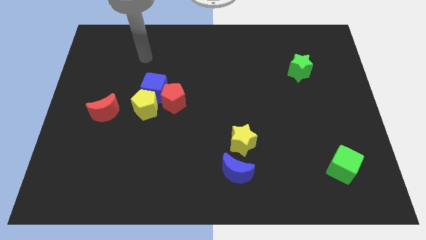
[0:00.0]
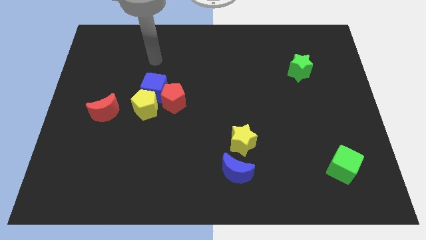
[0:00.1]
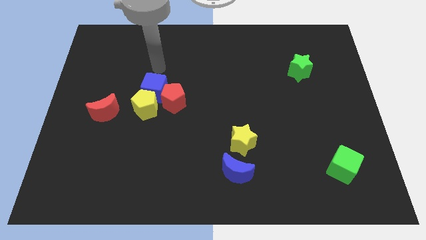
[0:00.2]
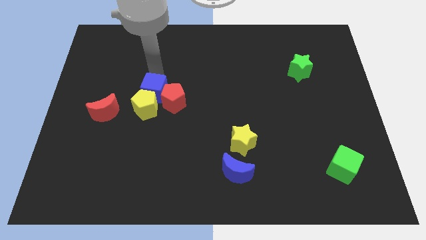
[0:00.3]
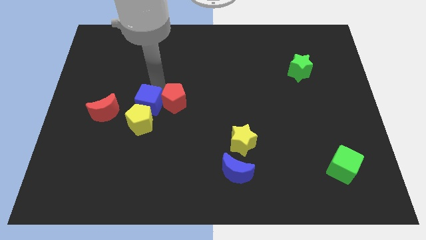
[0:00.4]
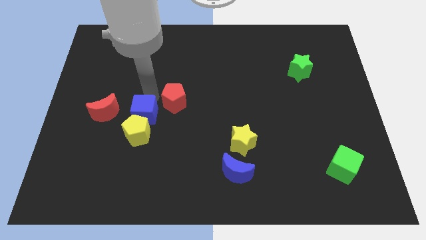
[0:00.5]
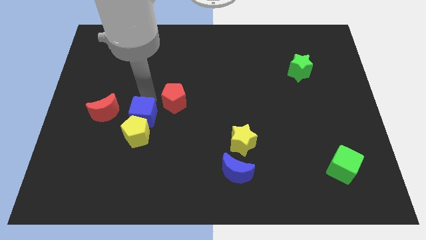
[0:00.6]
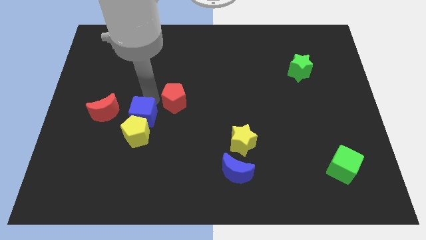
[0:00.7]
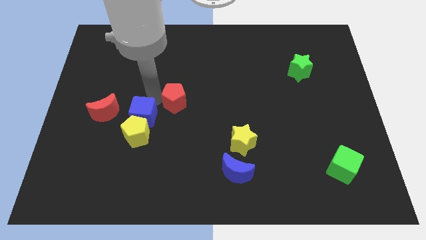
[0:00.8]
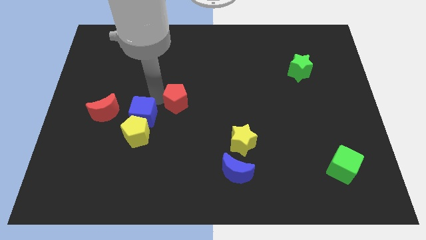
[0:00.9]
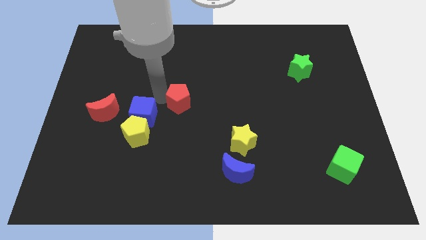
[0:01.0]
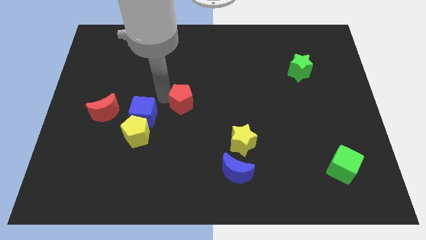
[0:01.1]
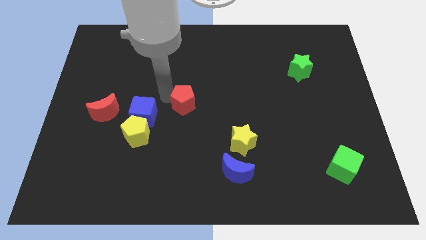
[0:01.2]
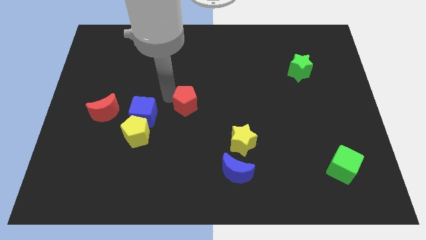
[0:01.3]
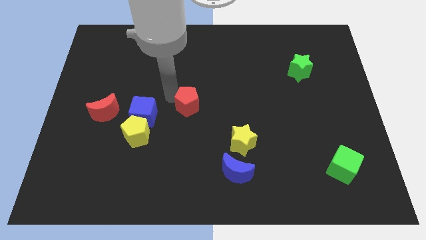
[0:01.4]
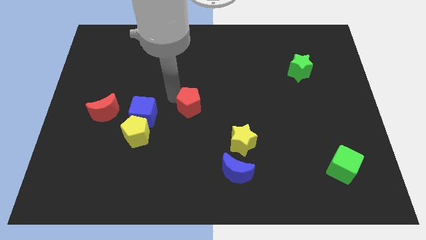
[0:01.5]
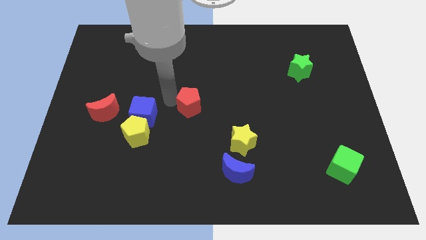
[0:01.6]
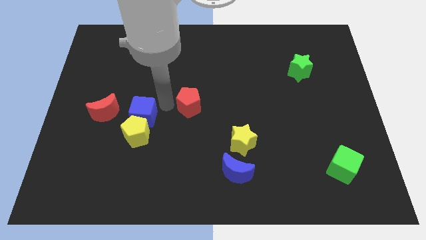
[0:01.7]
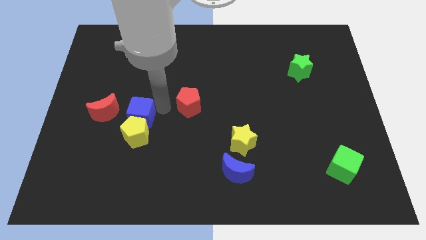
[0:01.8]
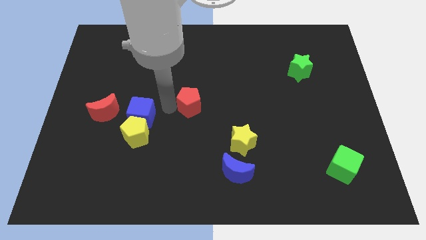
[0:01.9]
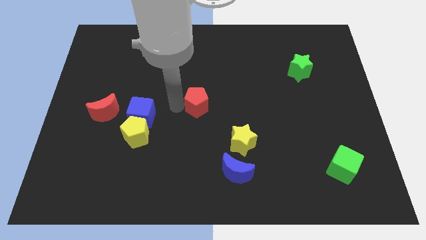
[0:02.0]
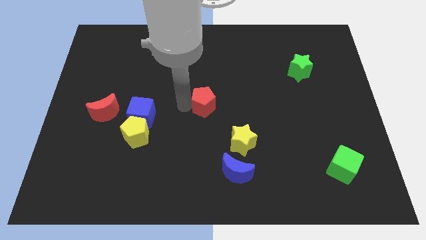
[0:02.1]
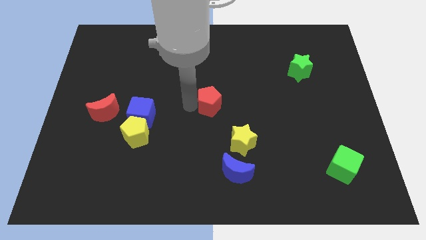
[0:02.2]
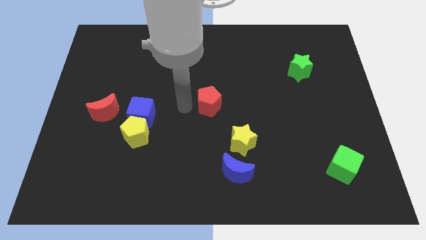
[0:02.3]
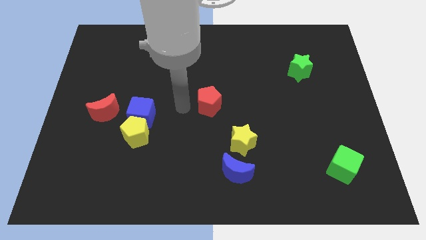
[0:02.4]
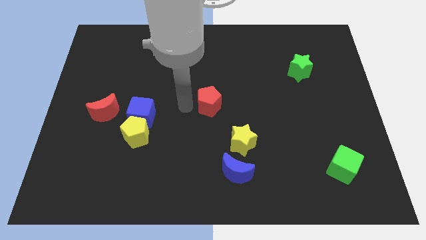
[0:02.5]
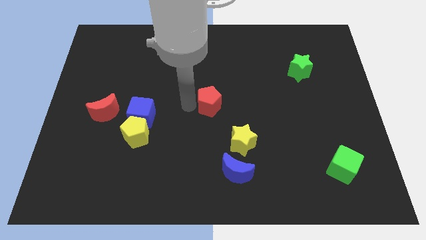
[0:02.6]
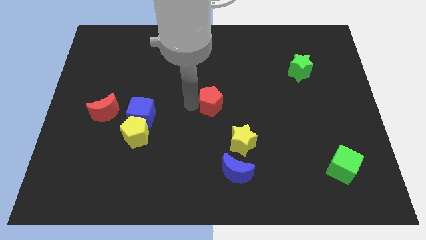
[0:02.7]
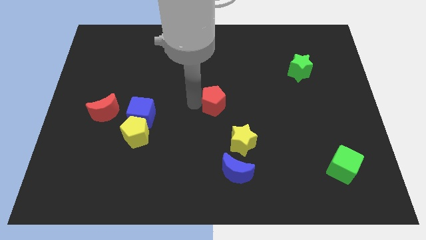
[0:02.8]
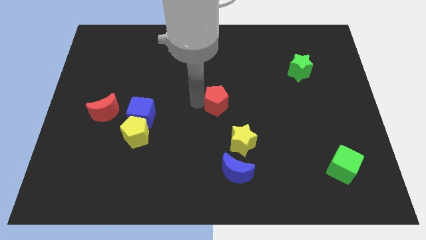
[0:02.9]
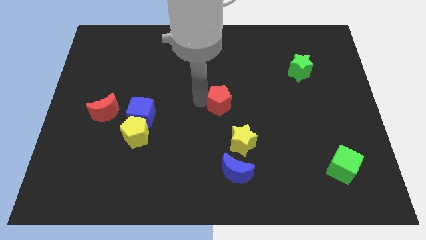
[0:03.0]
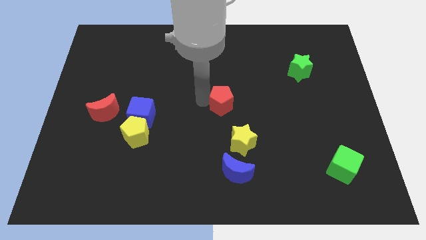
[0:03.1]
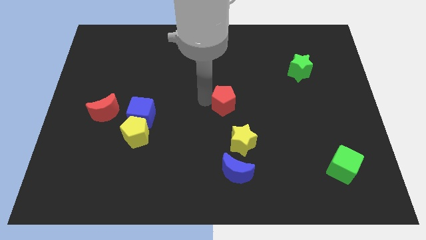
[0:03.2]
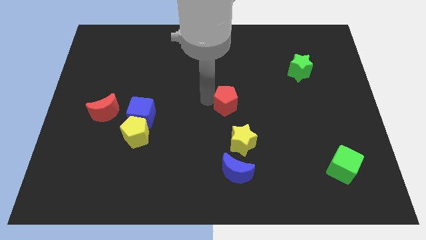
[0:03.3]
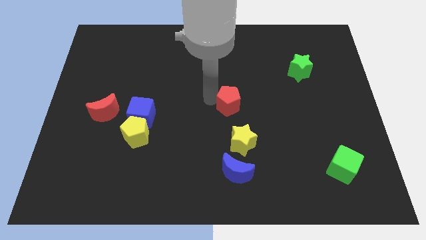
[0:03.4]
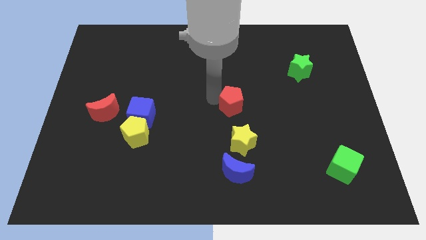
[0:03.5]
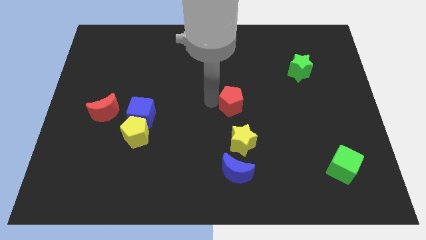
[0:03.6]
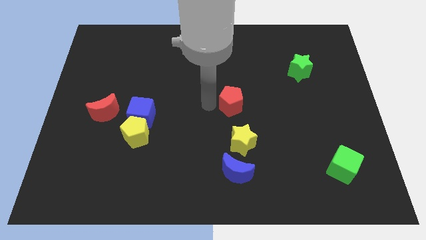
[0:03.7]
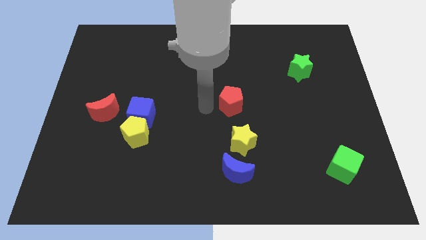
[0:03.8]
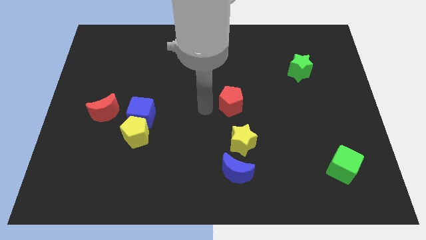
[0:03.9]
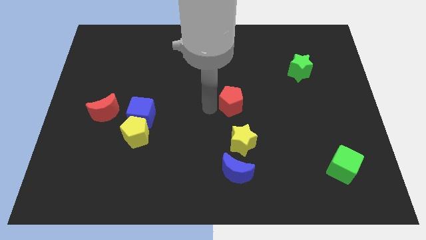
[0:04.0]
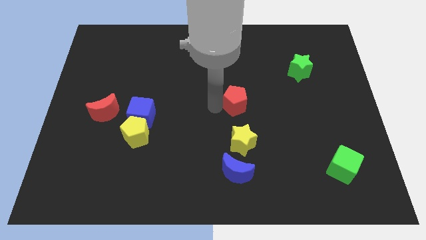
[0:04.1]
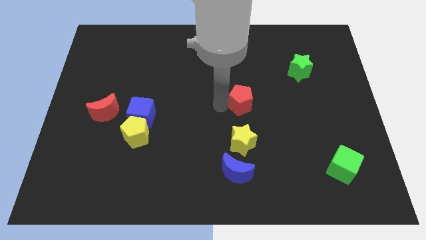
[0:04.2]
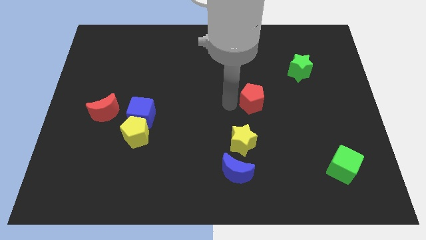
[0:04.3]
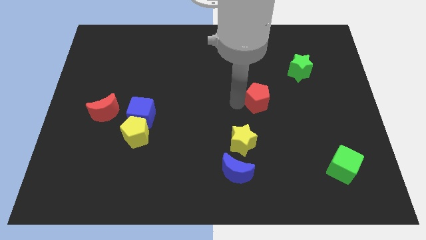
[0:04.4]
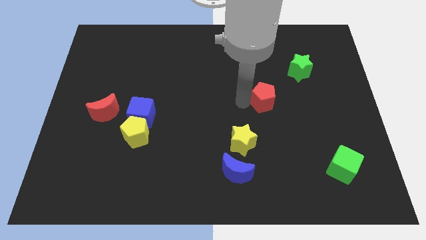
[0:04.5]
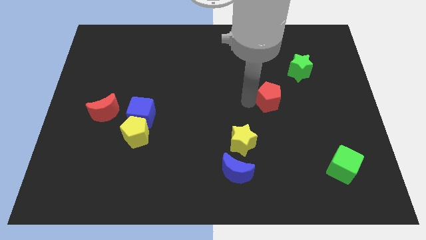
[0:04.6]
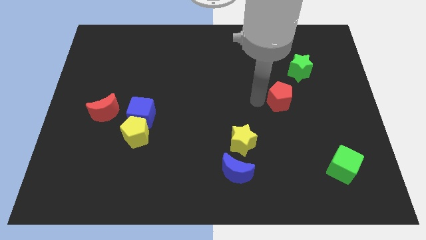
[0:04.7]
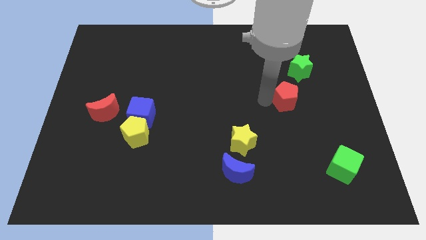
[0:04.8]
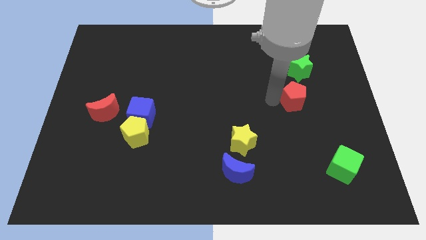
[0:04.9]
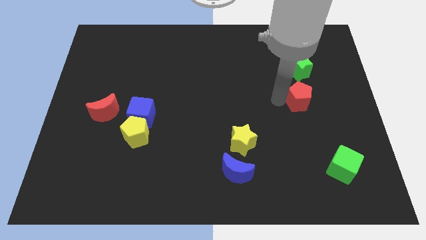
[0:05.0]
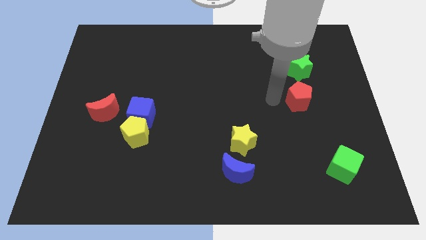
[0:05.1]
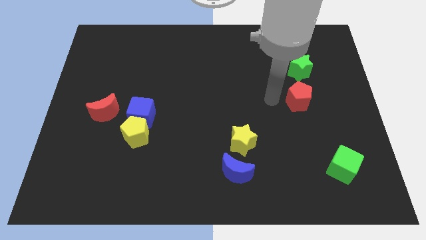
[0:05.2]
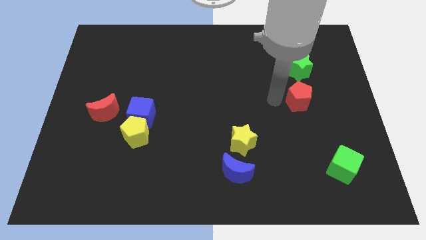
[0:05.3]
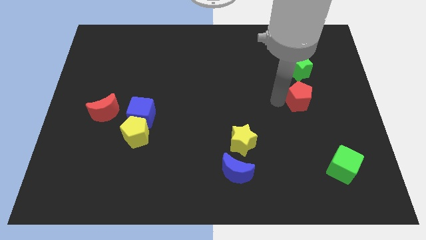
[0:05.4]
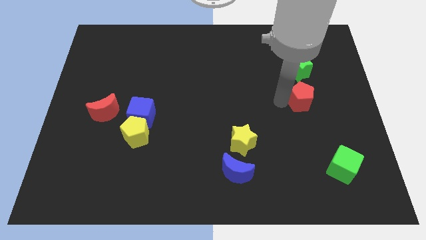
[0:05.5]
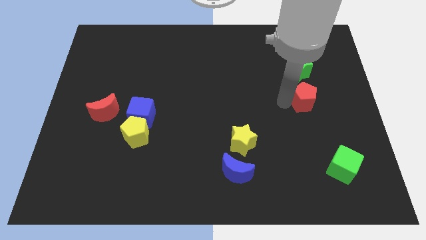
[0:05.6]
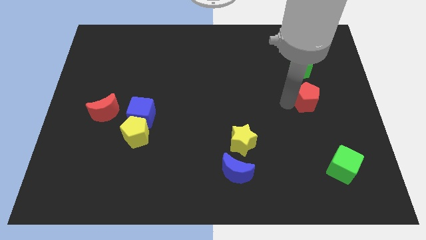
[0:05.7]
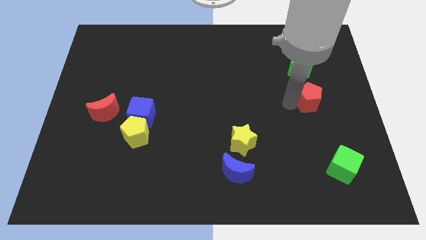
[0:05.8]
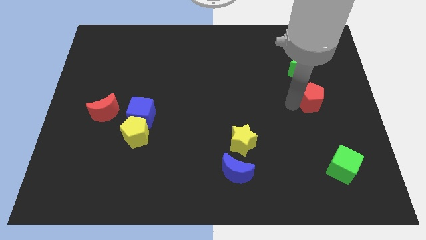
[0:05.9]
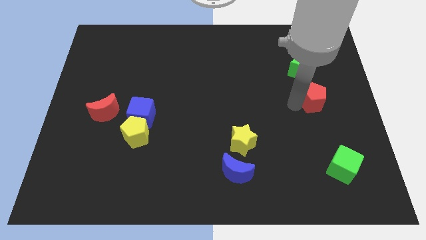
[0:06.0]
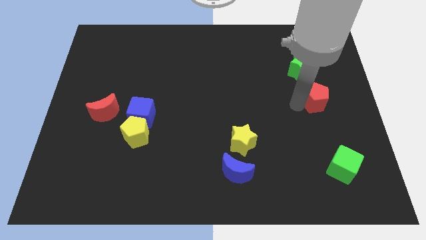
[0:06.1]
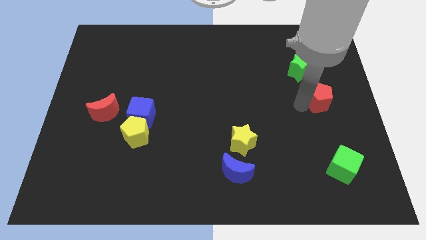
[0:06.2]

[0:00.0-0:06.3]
slide the red pentagon to the right side

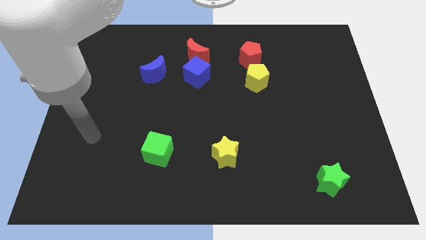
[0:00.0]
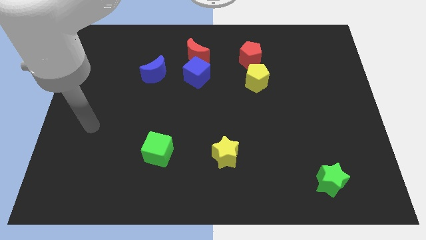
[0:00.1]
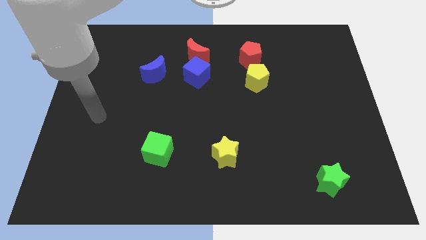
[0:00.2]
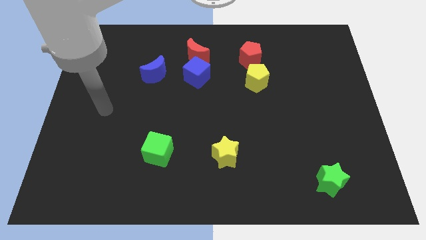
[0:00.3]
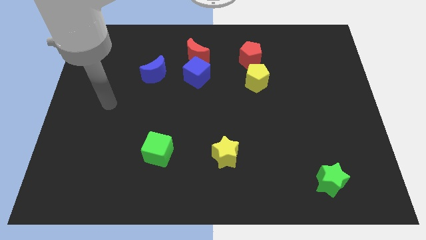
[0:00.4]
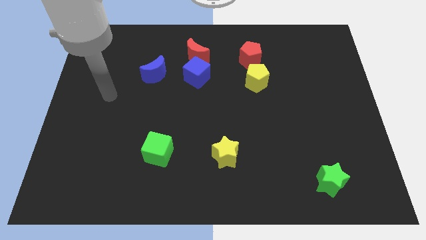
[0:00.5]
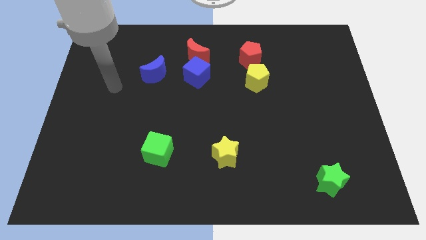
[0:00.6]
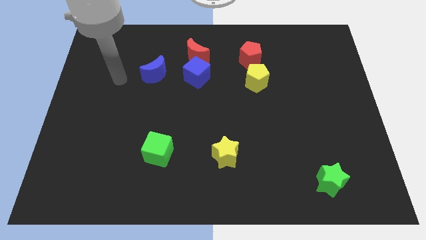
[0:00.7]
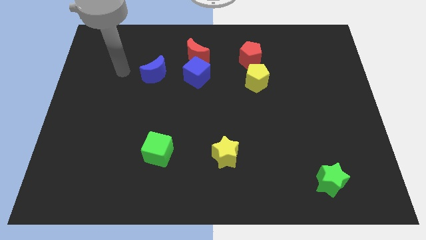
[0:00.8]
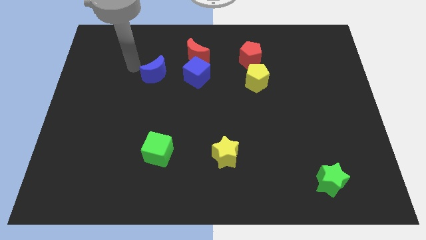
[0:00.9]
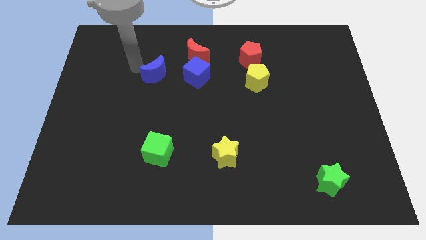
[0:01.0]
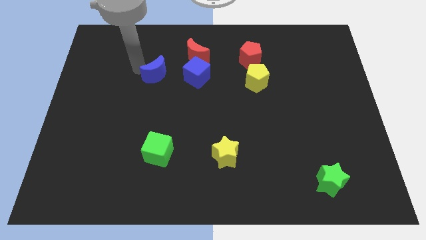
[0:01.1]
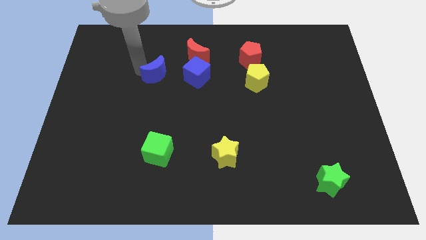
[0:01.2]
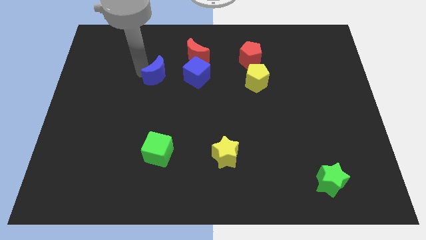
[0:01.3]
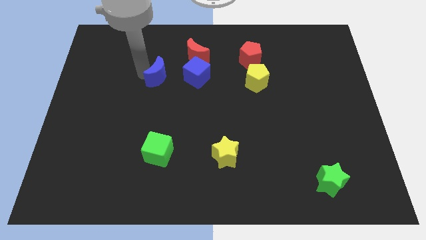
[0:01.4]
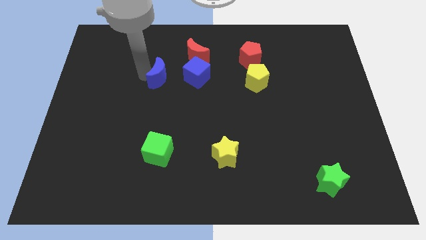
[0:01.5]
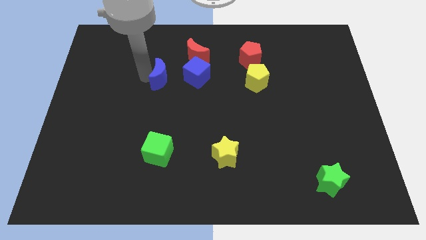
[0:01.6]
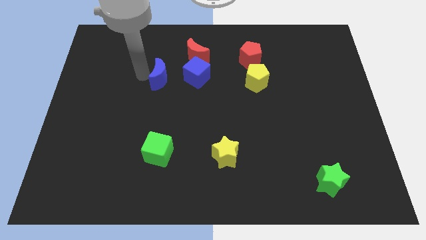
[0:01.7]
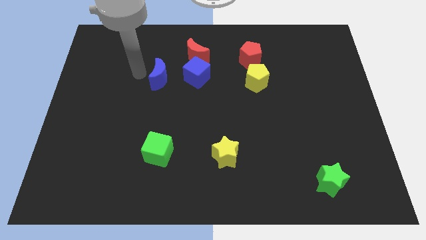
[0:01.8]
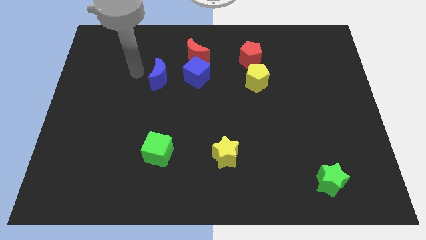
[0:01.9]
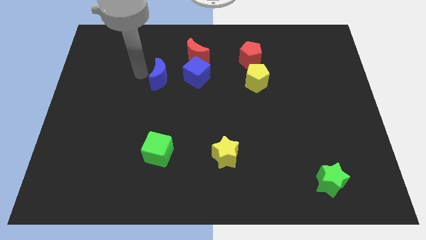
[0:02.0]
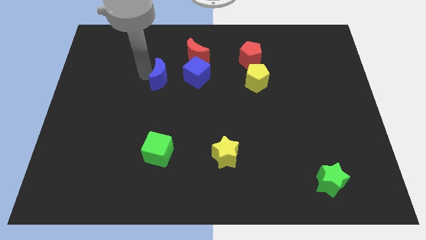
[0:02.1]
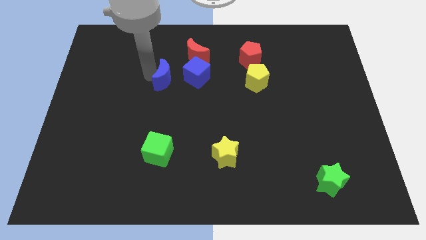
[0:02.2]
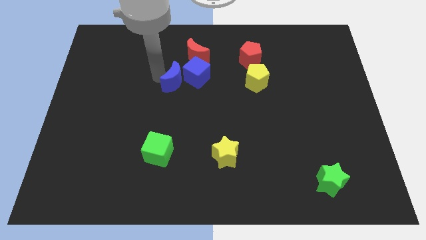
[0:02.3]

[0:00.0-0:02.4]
put the blue moon to the center
